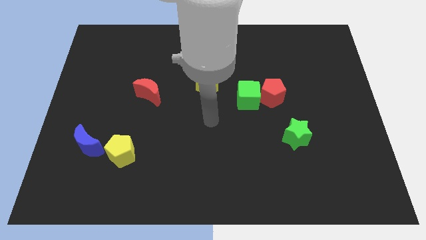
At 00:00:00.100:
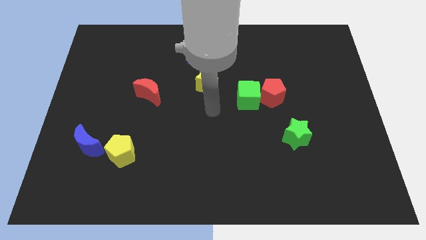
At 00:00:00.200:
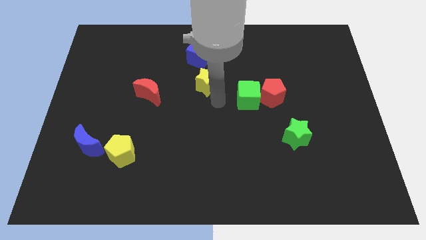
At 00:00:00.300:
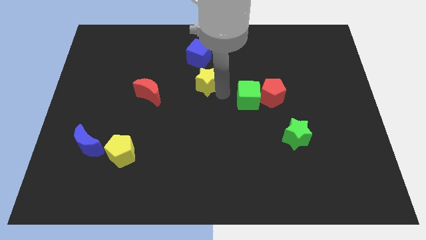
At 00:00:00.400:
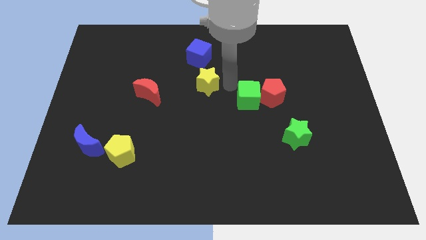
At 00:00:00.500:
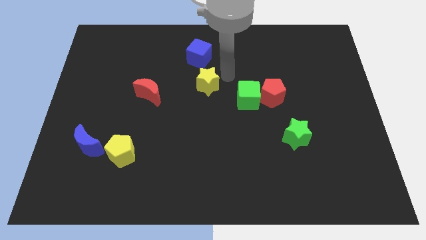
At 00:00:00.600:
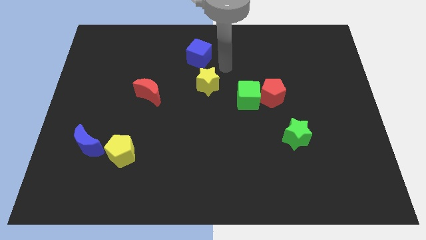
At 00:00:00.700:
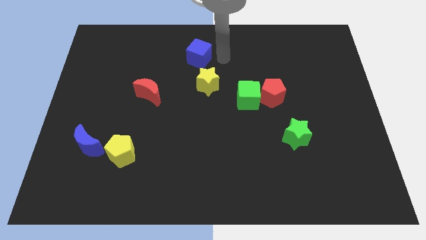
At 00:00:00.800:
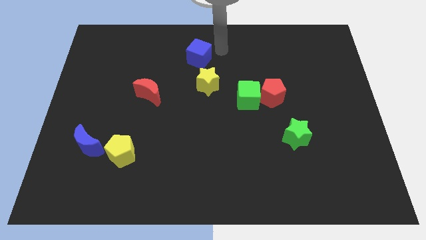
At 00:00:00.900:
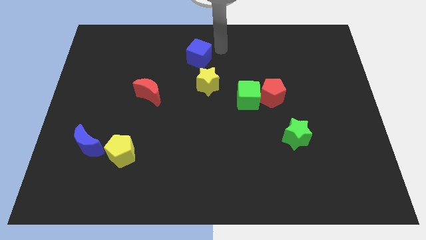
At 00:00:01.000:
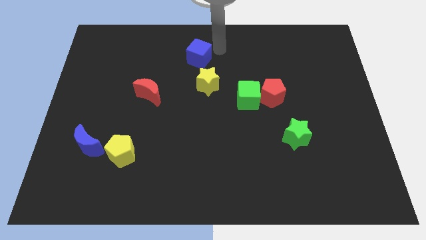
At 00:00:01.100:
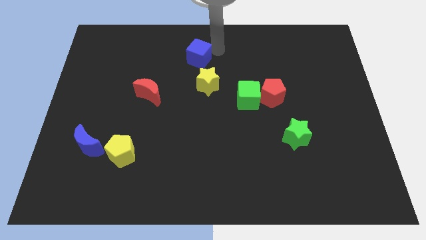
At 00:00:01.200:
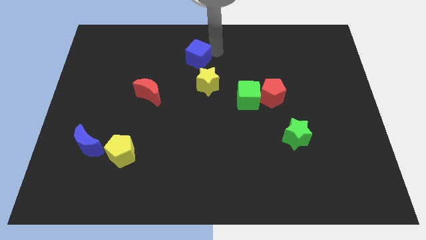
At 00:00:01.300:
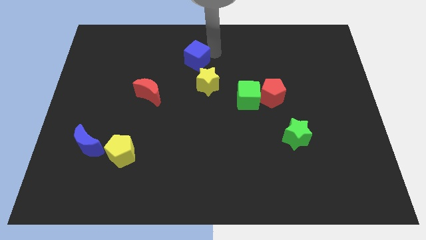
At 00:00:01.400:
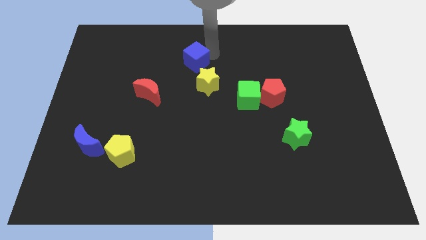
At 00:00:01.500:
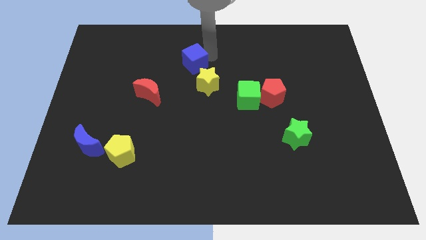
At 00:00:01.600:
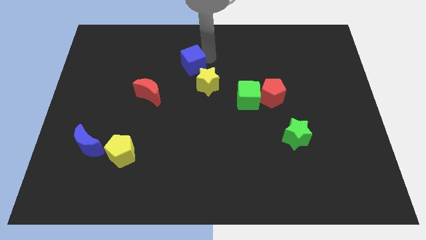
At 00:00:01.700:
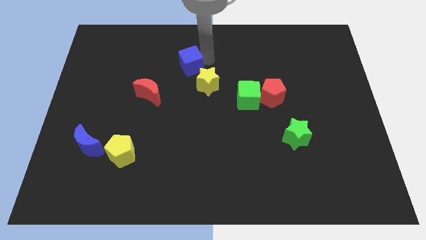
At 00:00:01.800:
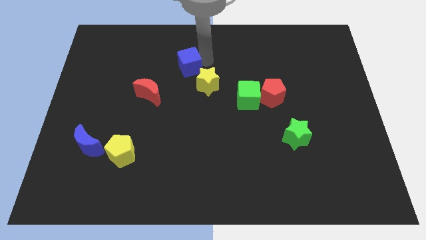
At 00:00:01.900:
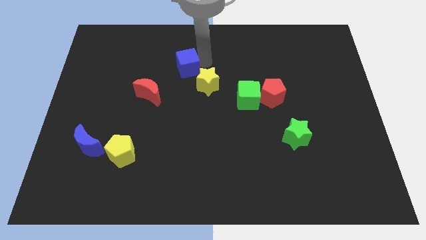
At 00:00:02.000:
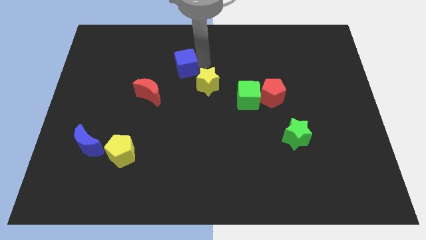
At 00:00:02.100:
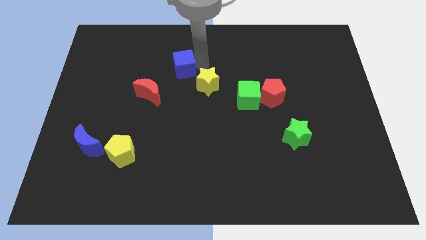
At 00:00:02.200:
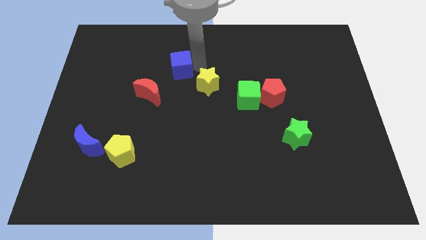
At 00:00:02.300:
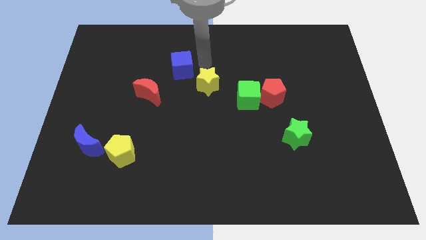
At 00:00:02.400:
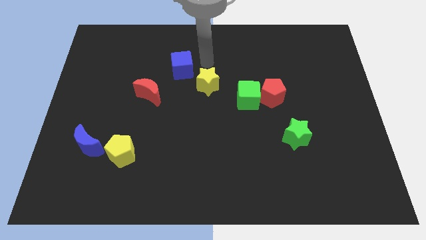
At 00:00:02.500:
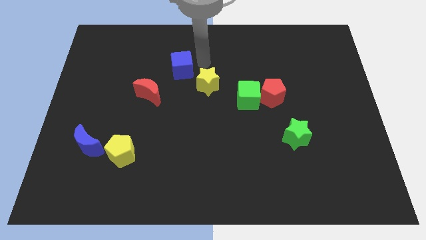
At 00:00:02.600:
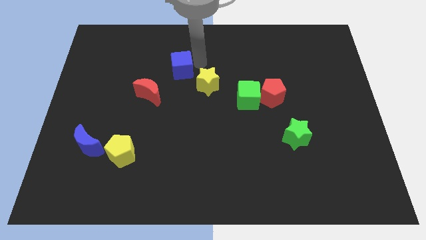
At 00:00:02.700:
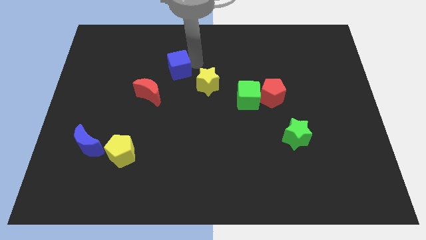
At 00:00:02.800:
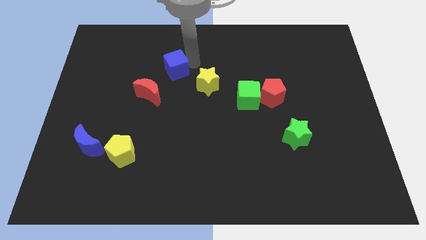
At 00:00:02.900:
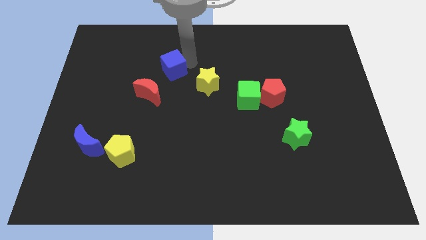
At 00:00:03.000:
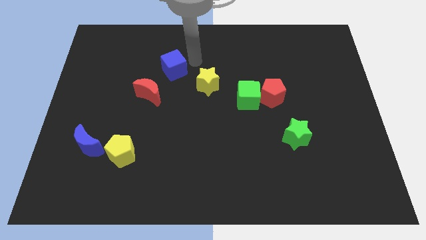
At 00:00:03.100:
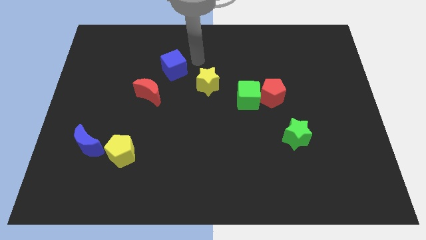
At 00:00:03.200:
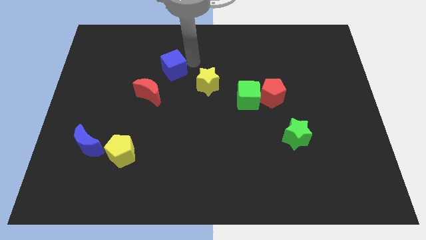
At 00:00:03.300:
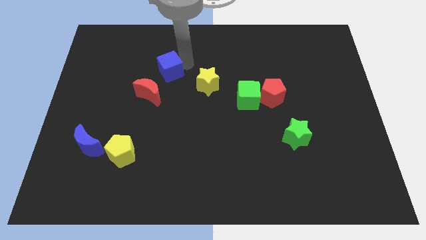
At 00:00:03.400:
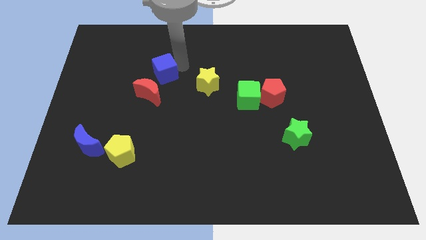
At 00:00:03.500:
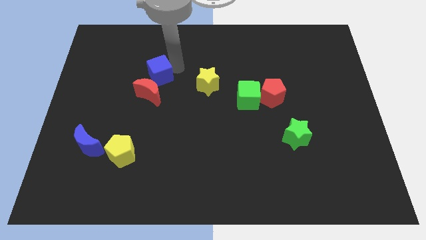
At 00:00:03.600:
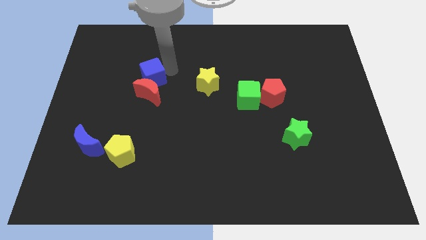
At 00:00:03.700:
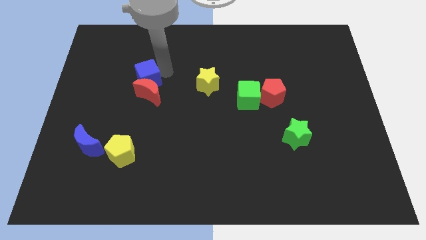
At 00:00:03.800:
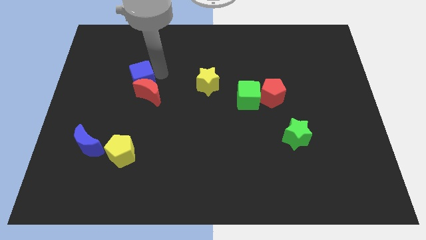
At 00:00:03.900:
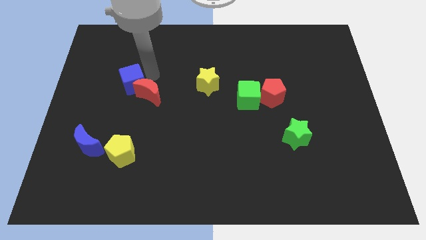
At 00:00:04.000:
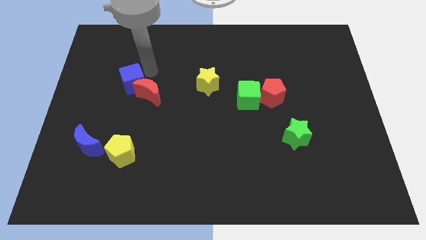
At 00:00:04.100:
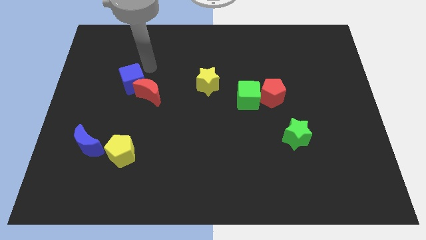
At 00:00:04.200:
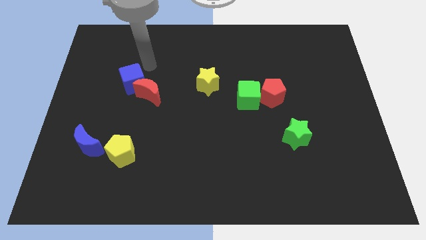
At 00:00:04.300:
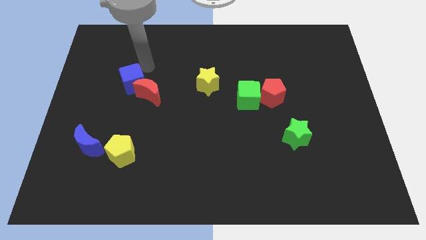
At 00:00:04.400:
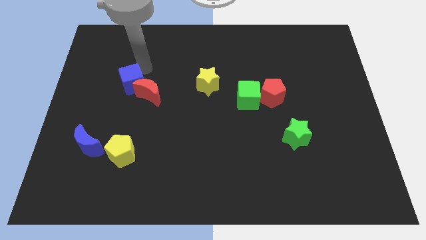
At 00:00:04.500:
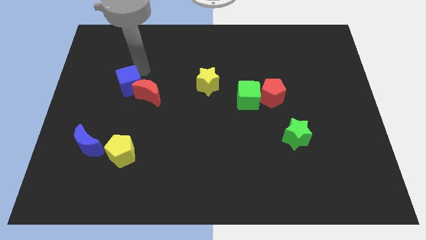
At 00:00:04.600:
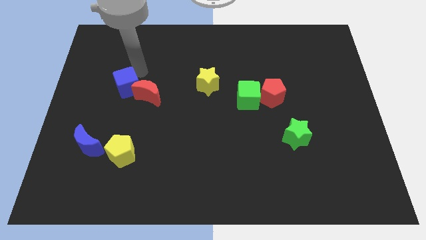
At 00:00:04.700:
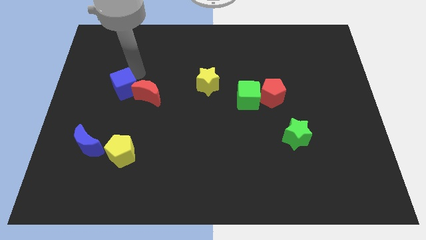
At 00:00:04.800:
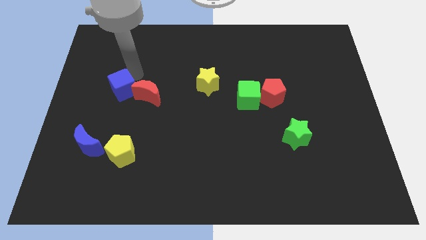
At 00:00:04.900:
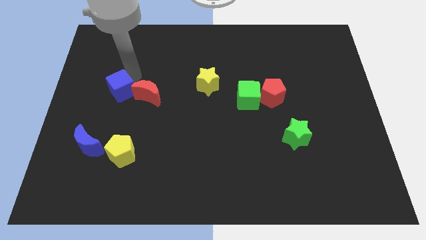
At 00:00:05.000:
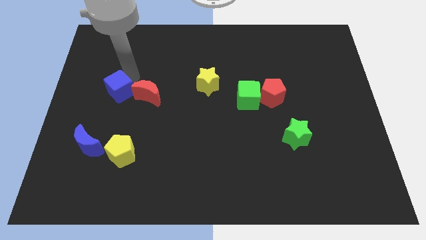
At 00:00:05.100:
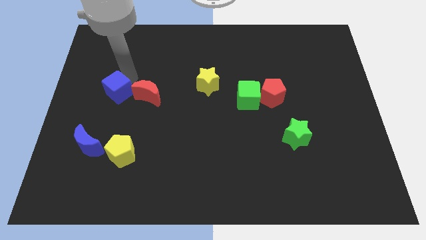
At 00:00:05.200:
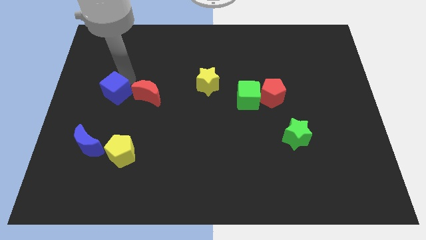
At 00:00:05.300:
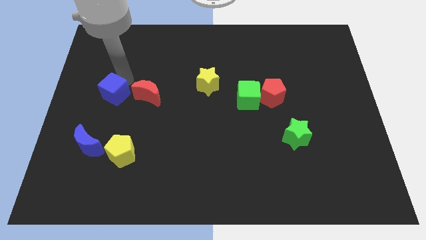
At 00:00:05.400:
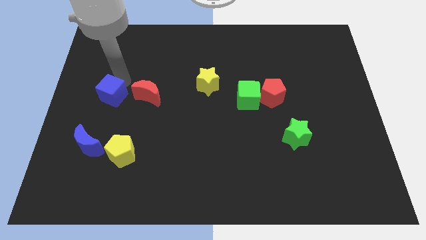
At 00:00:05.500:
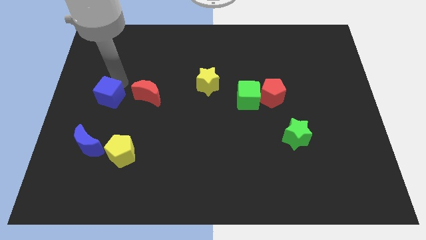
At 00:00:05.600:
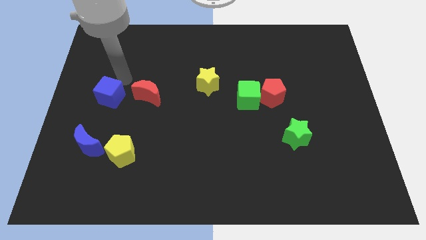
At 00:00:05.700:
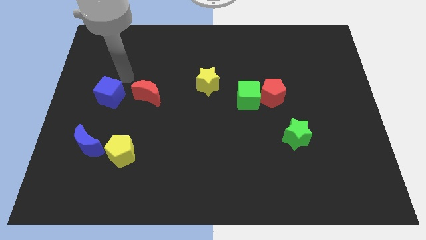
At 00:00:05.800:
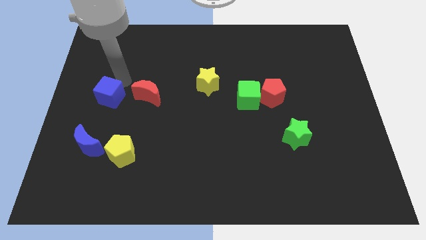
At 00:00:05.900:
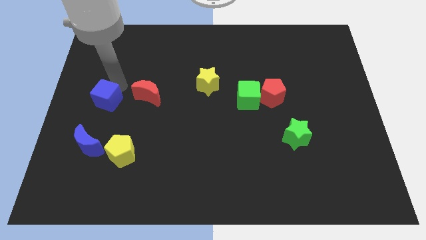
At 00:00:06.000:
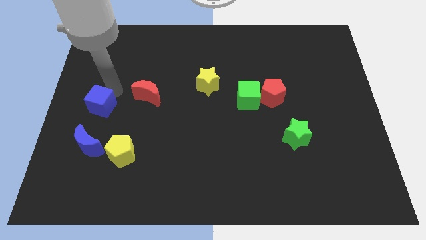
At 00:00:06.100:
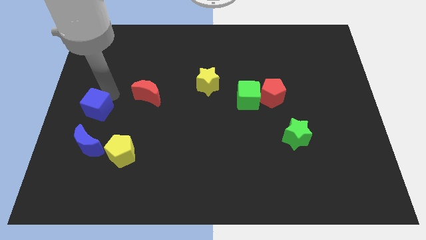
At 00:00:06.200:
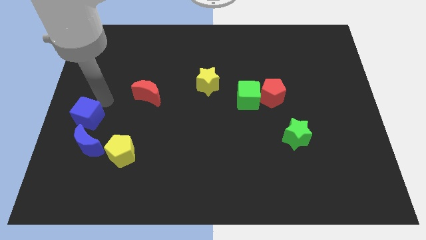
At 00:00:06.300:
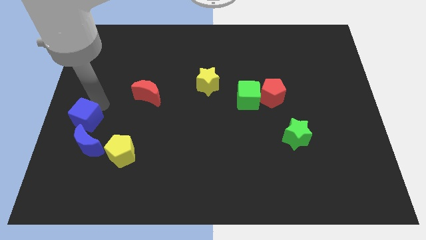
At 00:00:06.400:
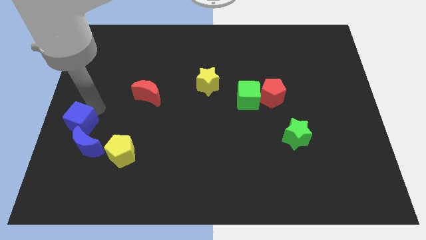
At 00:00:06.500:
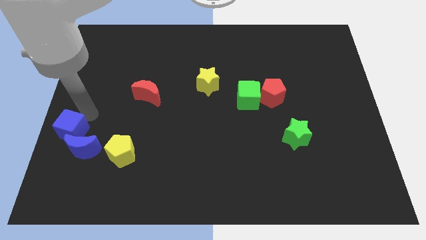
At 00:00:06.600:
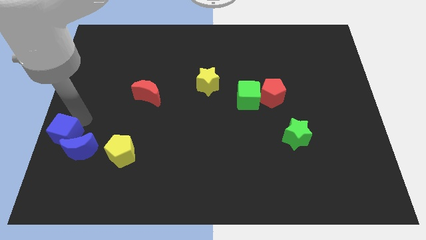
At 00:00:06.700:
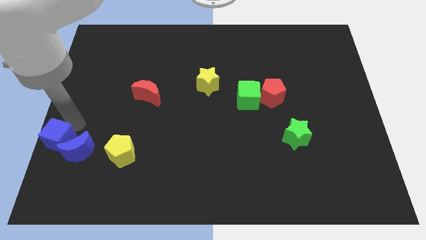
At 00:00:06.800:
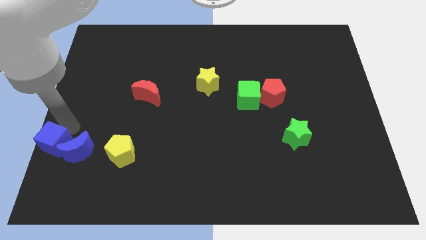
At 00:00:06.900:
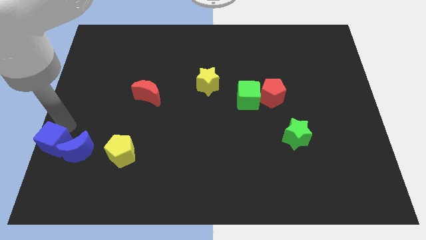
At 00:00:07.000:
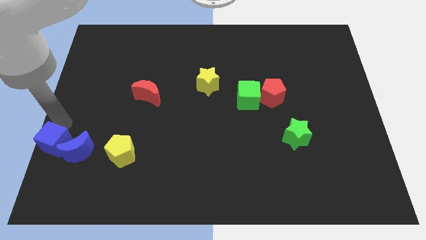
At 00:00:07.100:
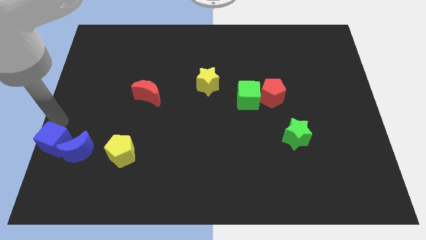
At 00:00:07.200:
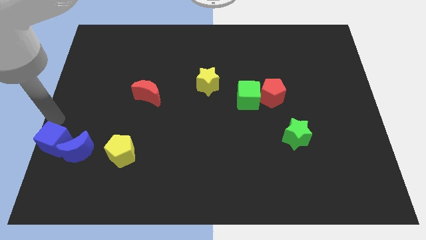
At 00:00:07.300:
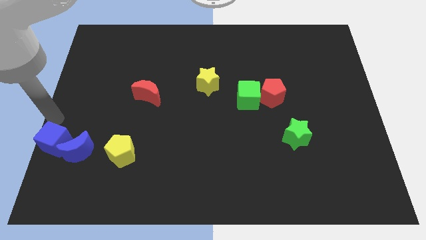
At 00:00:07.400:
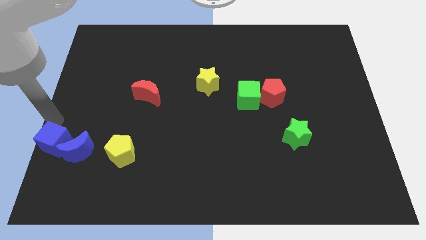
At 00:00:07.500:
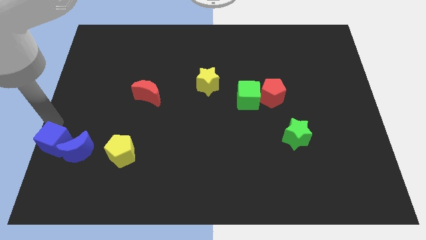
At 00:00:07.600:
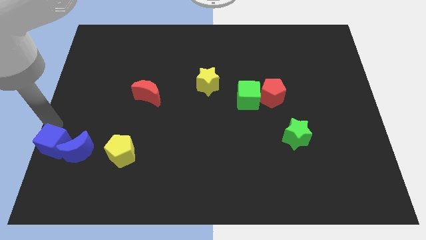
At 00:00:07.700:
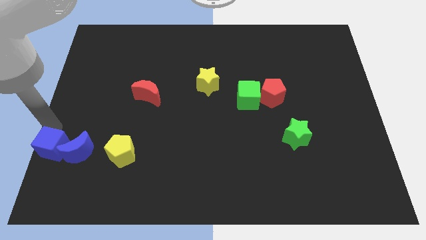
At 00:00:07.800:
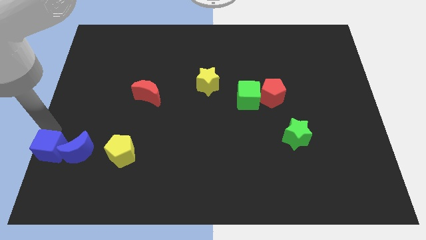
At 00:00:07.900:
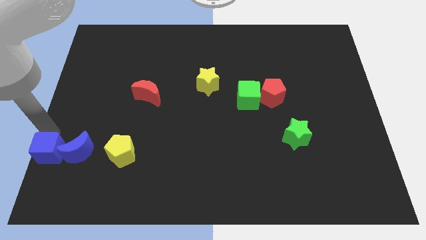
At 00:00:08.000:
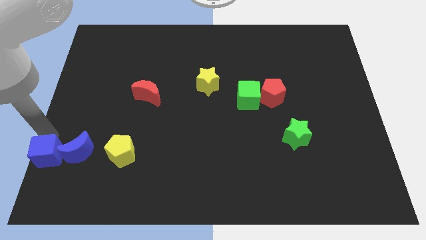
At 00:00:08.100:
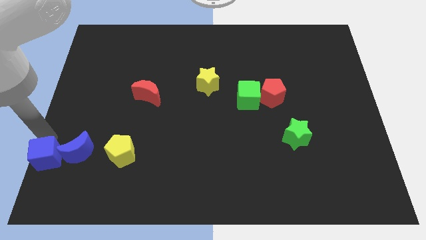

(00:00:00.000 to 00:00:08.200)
put the blue cube to the lower left corner
